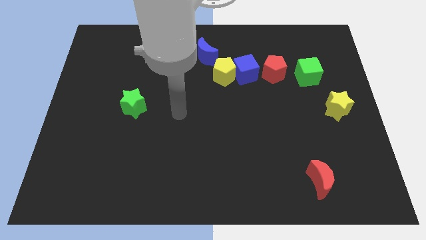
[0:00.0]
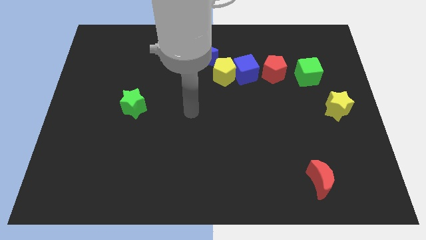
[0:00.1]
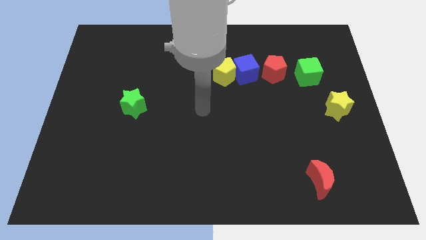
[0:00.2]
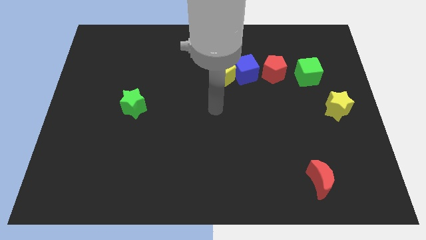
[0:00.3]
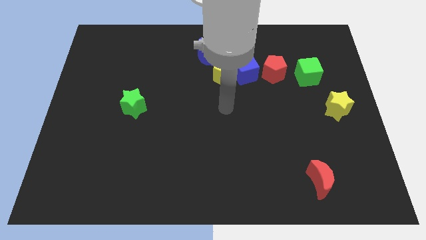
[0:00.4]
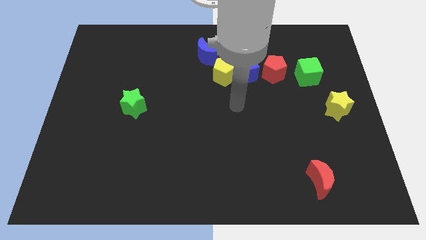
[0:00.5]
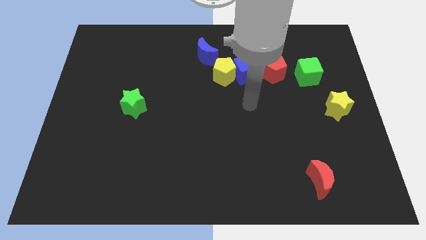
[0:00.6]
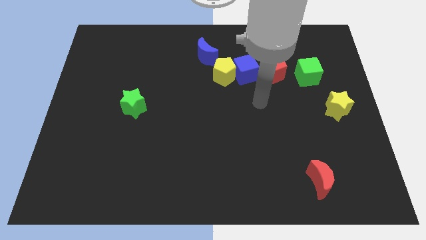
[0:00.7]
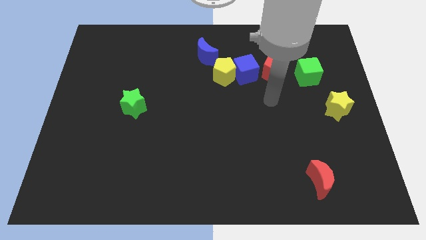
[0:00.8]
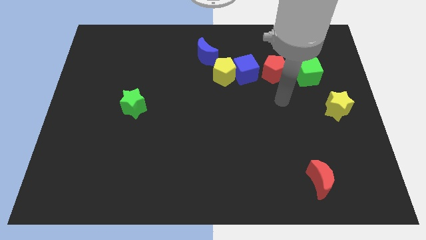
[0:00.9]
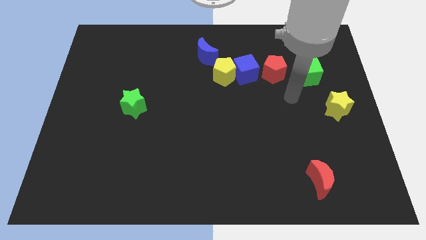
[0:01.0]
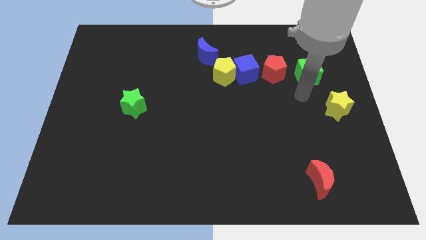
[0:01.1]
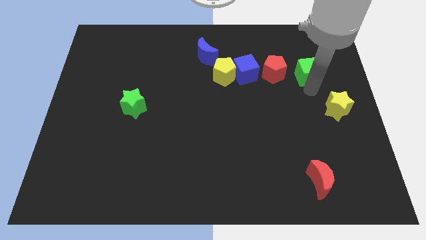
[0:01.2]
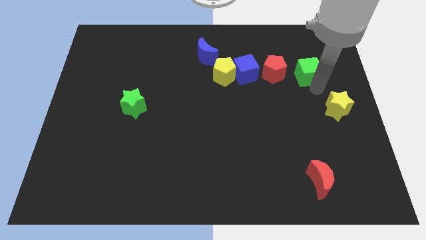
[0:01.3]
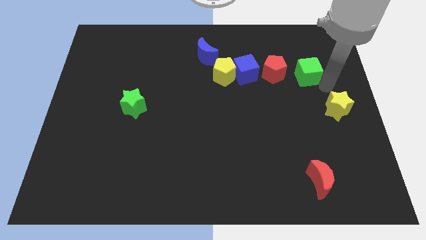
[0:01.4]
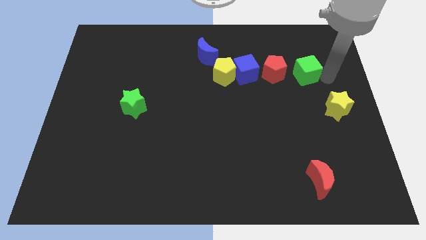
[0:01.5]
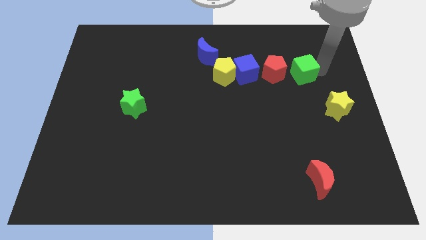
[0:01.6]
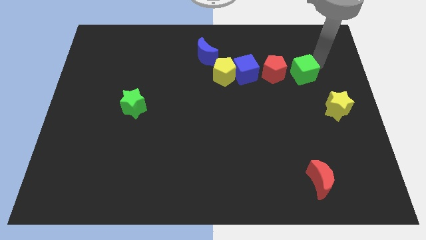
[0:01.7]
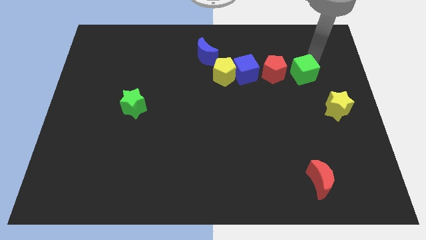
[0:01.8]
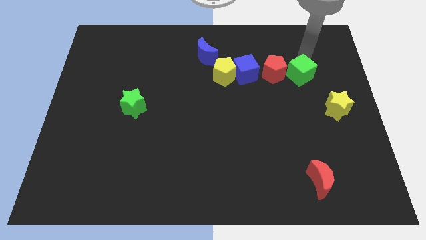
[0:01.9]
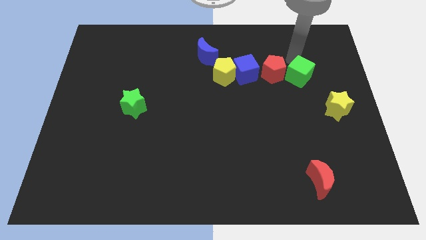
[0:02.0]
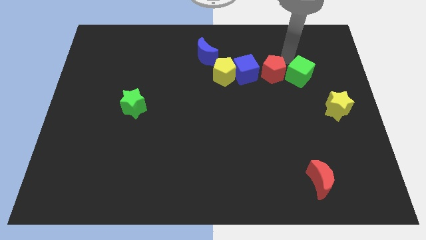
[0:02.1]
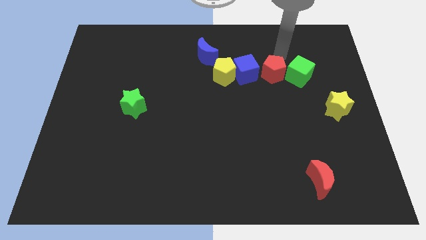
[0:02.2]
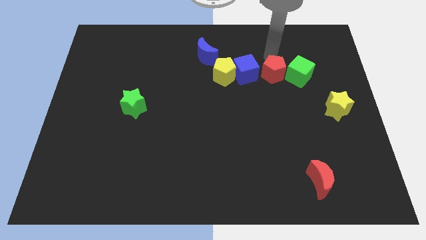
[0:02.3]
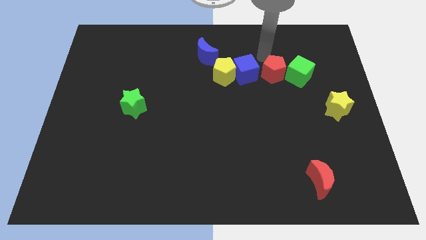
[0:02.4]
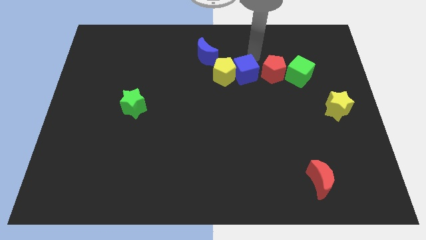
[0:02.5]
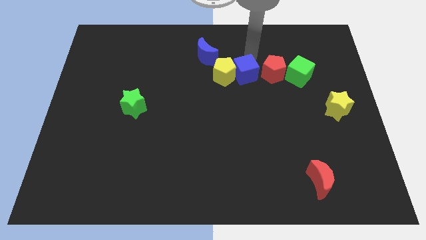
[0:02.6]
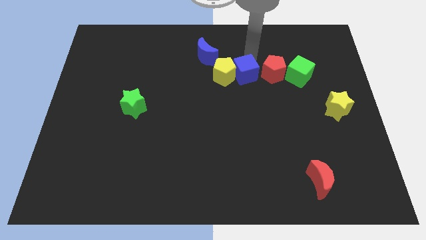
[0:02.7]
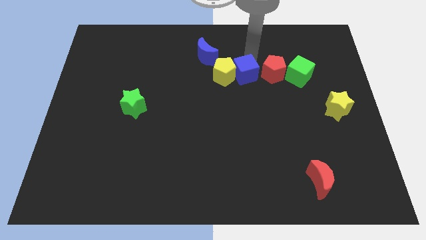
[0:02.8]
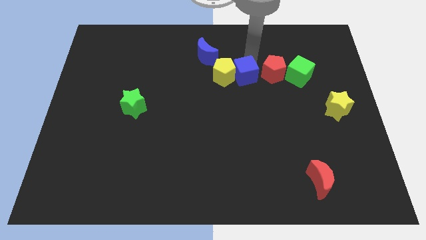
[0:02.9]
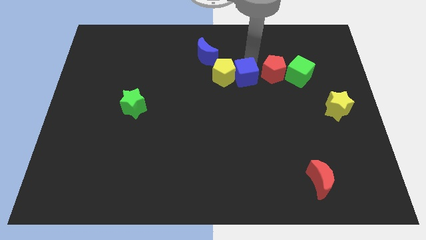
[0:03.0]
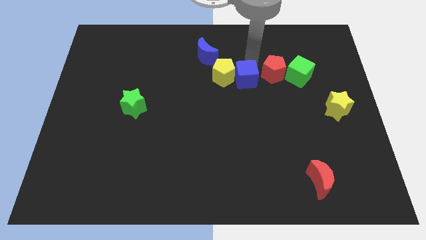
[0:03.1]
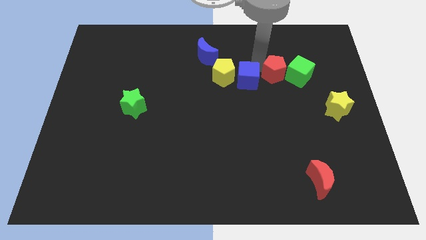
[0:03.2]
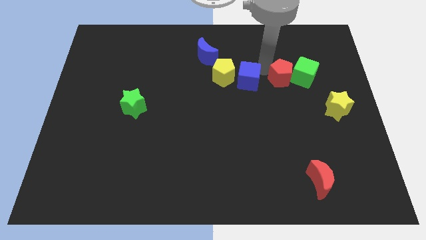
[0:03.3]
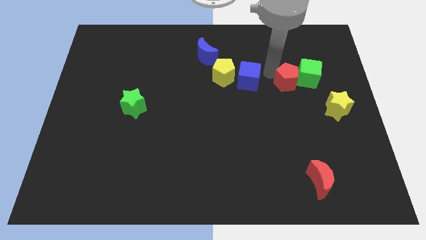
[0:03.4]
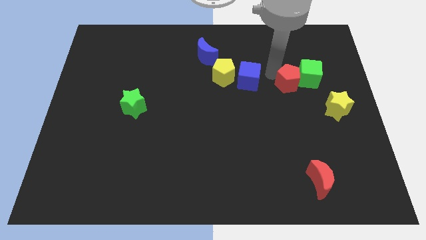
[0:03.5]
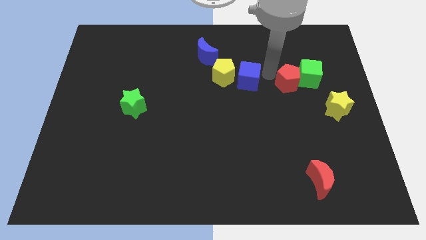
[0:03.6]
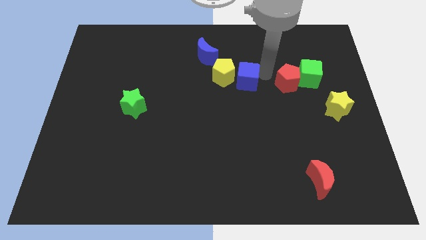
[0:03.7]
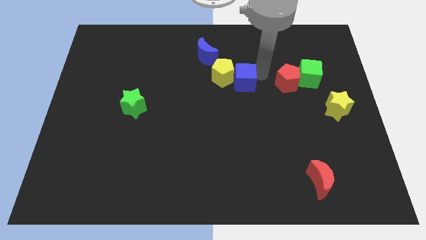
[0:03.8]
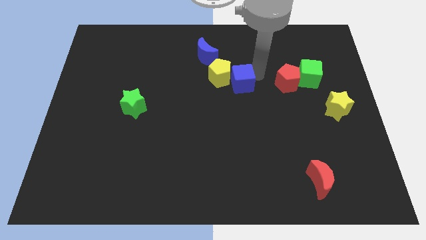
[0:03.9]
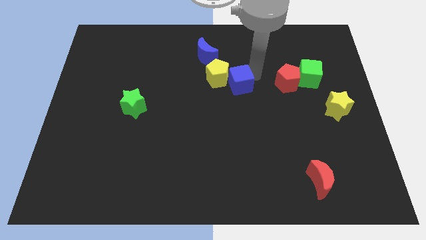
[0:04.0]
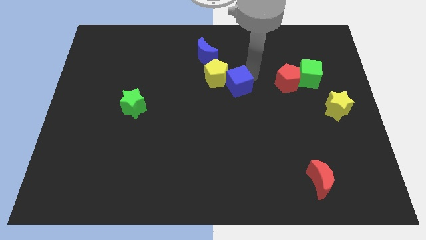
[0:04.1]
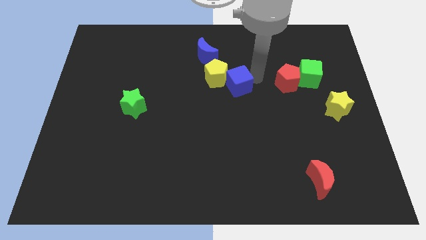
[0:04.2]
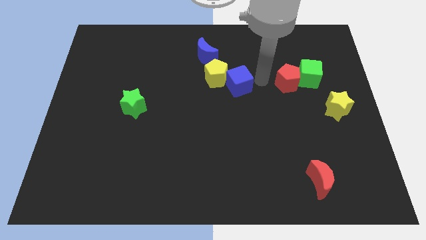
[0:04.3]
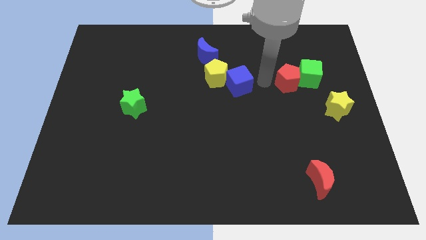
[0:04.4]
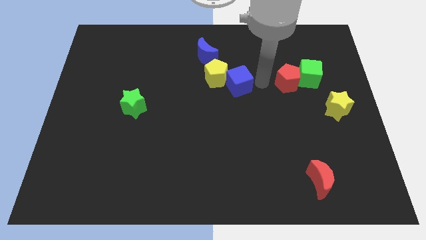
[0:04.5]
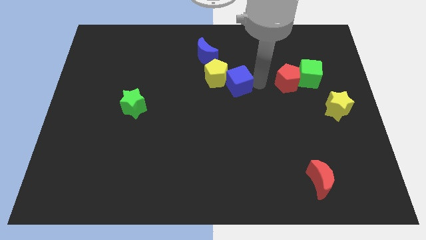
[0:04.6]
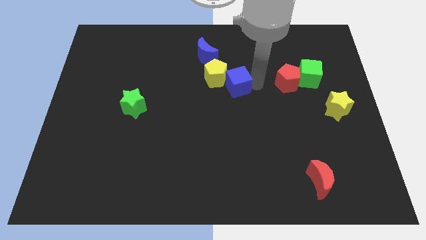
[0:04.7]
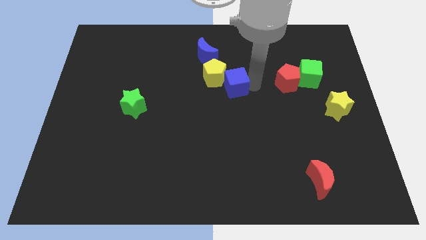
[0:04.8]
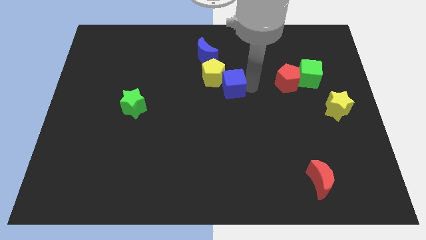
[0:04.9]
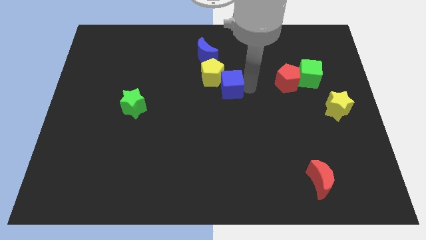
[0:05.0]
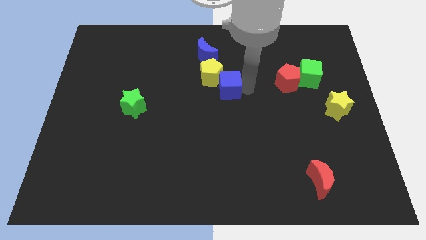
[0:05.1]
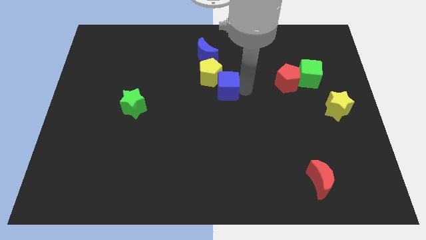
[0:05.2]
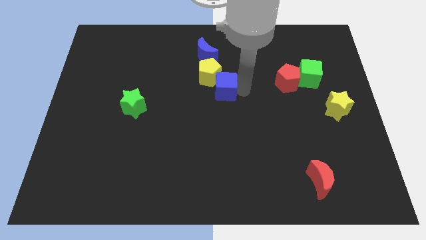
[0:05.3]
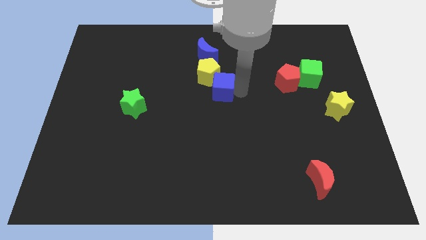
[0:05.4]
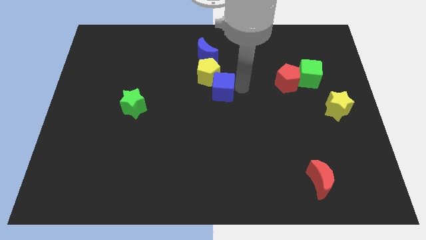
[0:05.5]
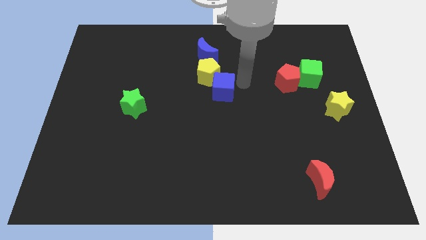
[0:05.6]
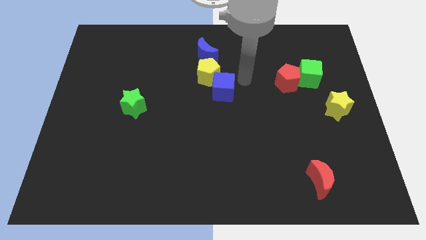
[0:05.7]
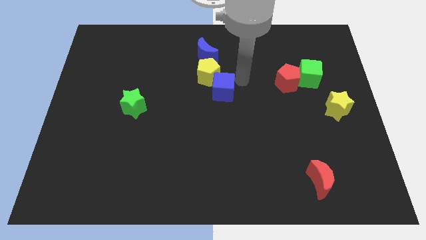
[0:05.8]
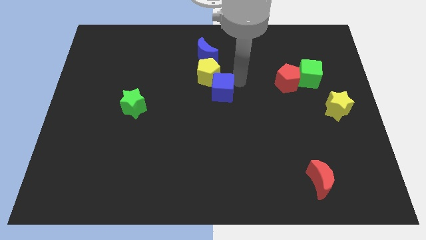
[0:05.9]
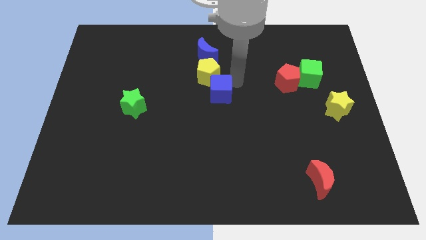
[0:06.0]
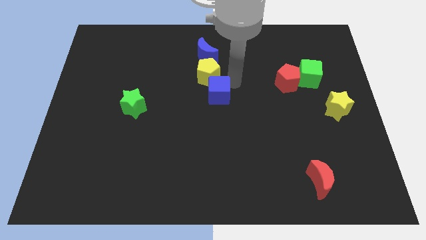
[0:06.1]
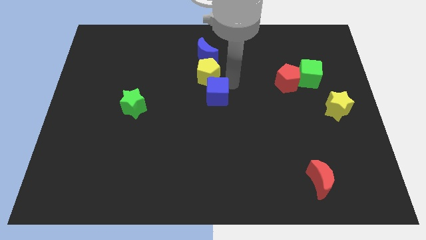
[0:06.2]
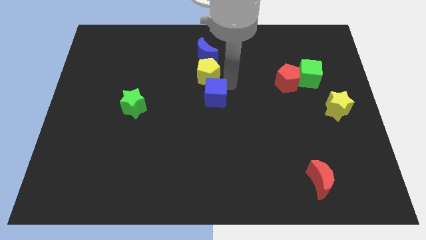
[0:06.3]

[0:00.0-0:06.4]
pull the blue cube apart from the yellow pentagon and red pentagon

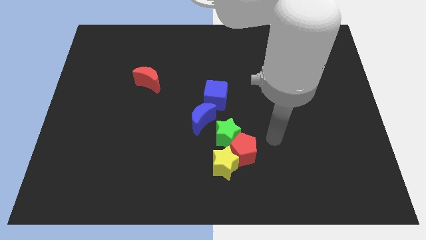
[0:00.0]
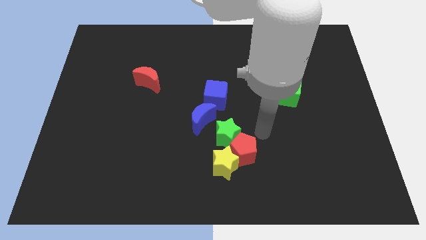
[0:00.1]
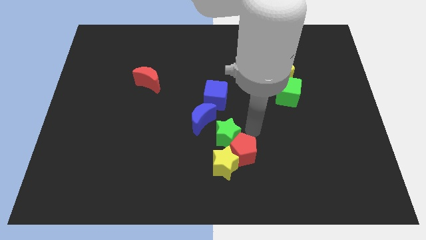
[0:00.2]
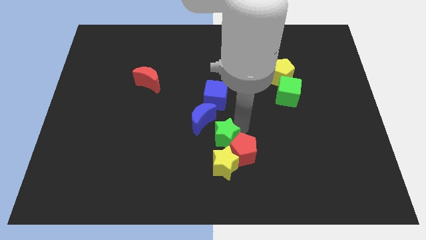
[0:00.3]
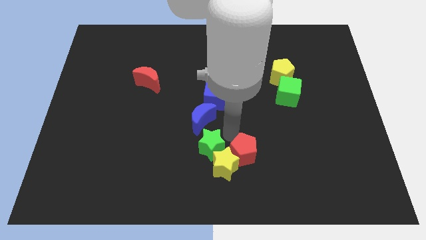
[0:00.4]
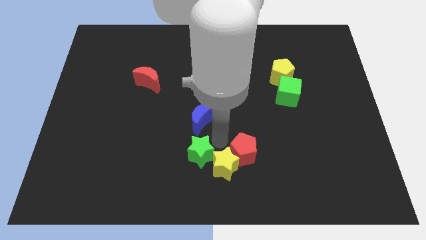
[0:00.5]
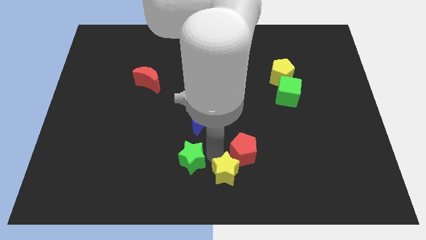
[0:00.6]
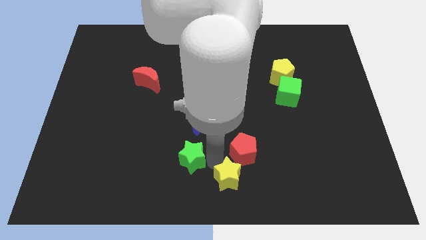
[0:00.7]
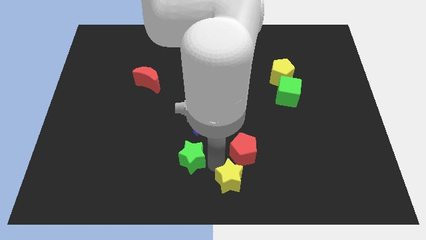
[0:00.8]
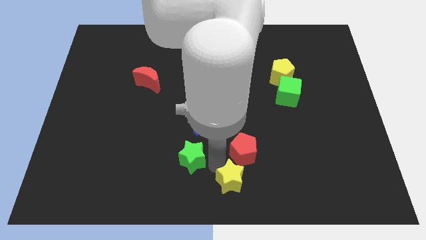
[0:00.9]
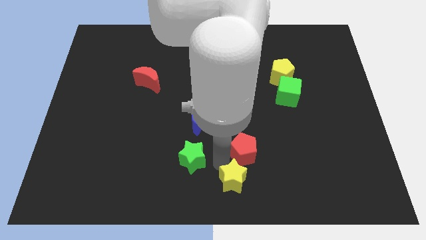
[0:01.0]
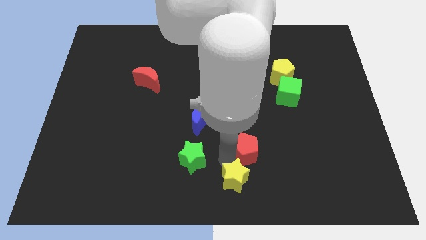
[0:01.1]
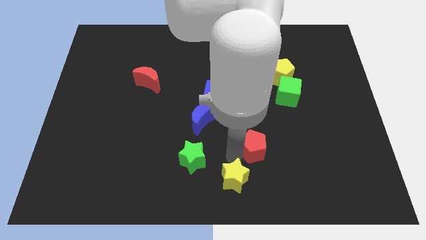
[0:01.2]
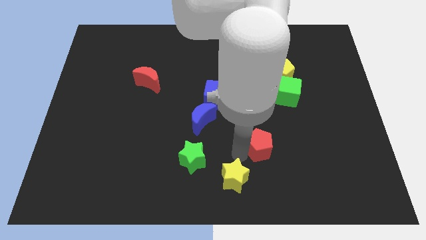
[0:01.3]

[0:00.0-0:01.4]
separate the red pentagon from the yellow star and green star

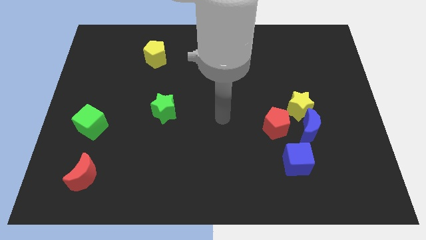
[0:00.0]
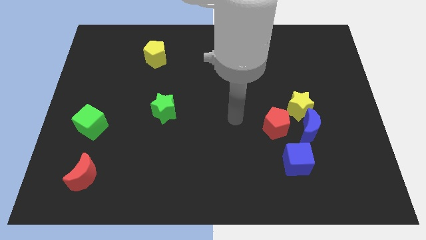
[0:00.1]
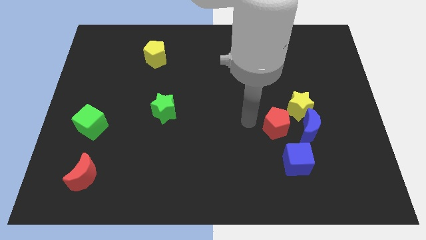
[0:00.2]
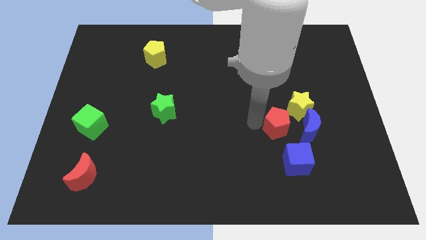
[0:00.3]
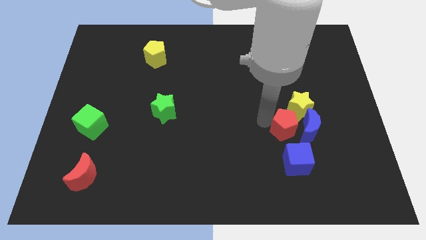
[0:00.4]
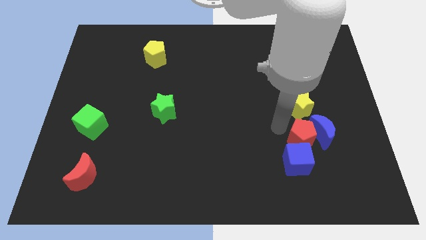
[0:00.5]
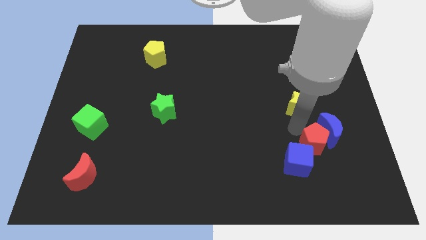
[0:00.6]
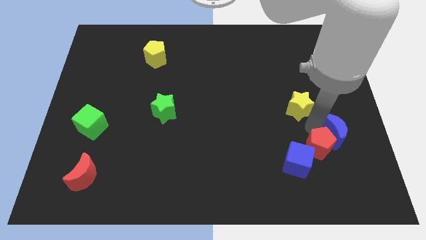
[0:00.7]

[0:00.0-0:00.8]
move the yellow star away from the blue moon and red pentagon

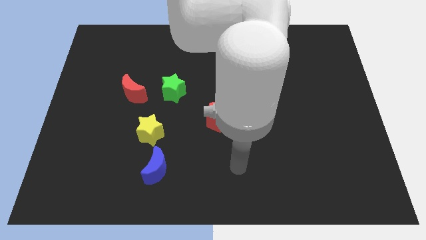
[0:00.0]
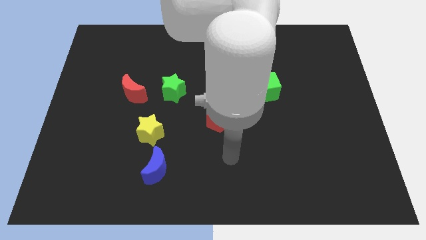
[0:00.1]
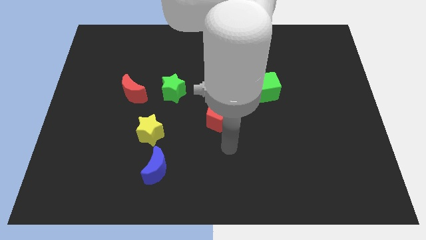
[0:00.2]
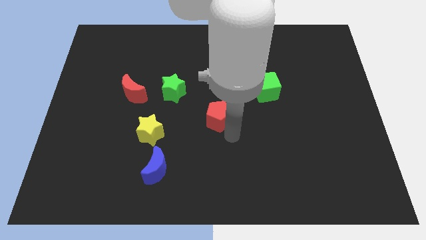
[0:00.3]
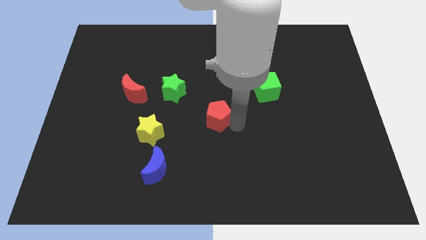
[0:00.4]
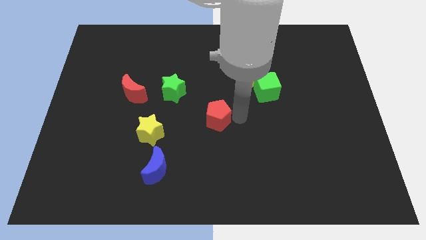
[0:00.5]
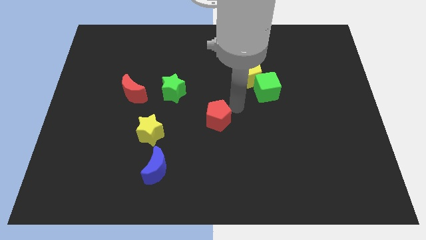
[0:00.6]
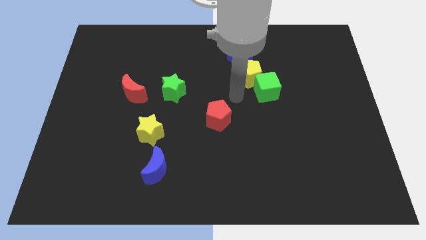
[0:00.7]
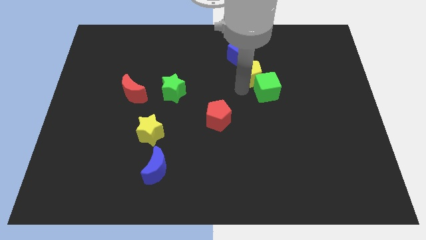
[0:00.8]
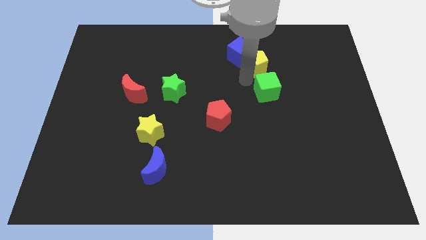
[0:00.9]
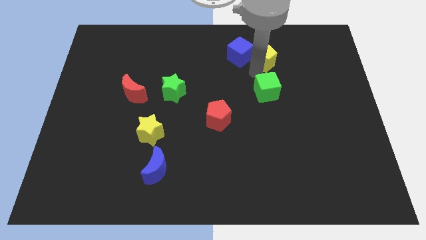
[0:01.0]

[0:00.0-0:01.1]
separate the green cube from the yellow pentagon
